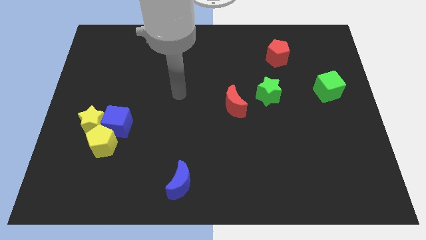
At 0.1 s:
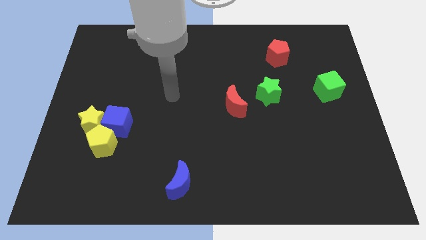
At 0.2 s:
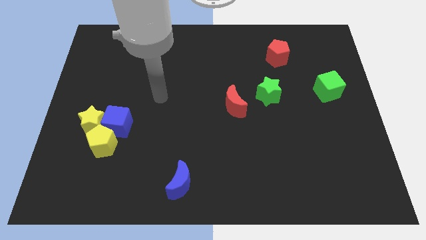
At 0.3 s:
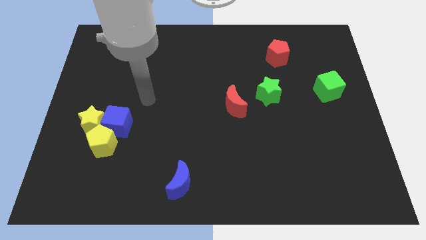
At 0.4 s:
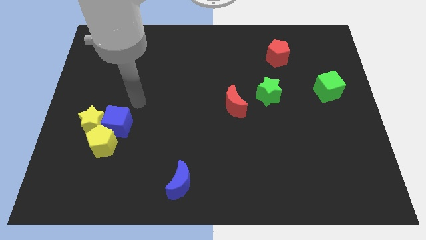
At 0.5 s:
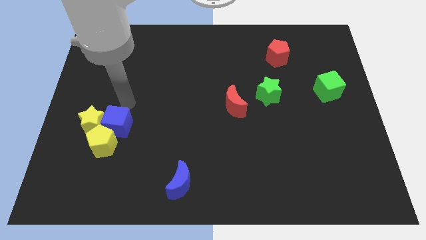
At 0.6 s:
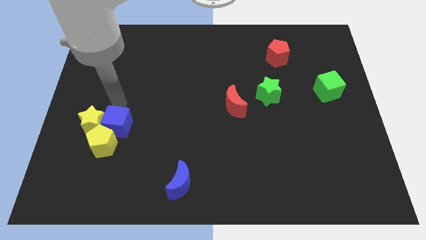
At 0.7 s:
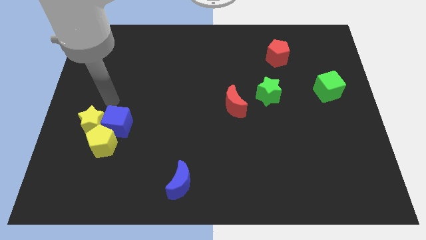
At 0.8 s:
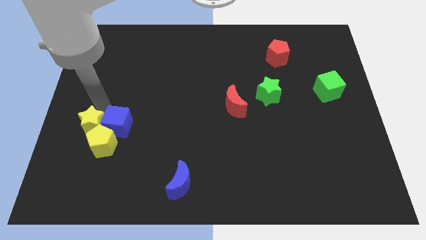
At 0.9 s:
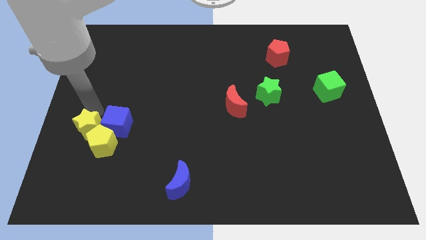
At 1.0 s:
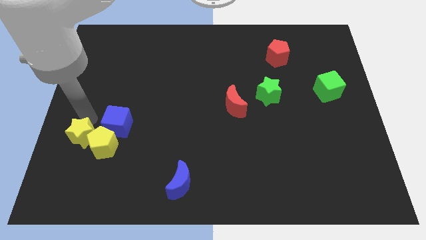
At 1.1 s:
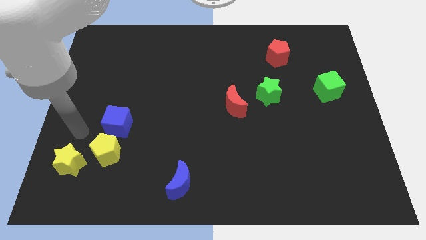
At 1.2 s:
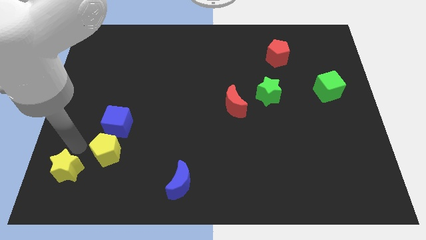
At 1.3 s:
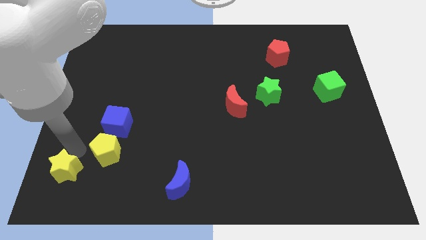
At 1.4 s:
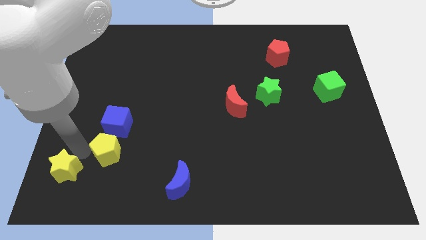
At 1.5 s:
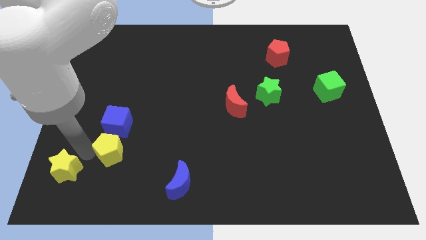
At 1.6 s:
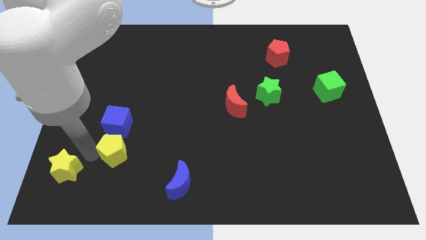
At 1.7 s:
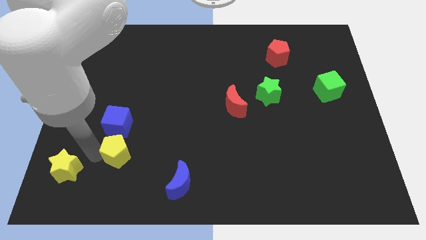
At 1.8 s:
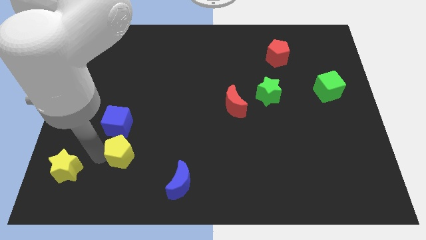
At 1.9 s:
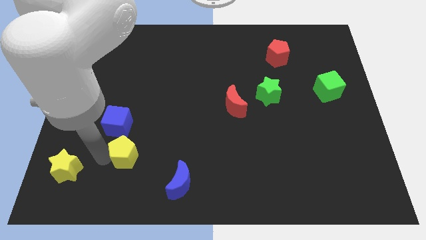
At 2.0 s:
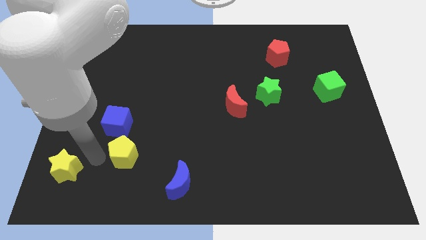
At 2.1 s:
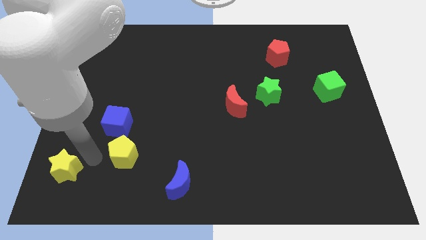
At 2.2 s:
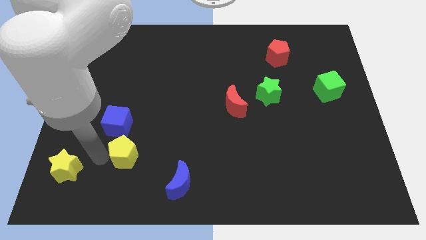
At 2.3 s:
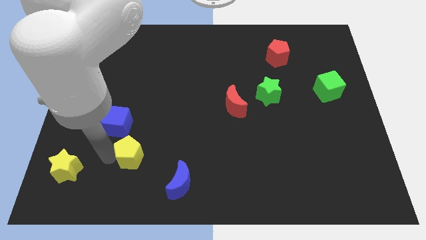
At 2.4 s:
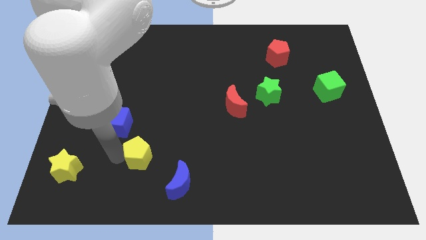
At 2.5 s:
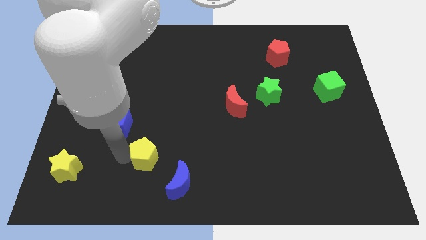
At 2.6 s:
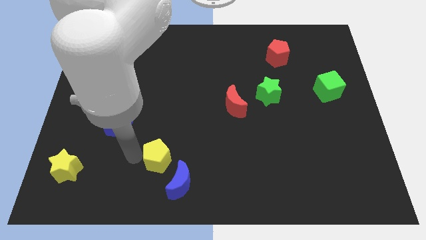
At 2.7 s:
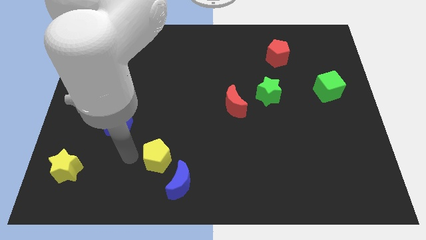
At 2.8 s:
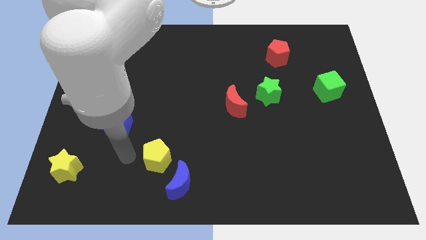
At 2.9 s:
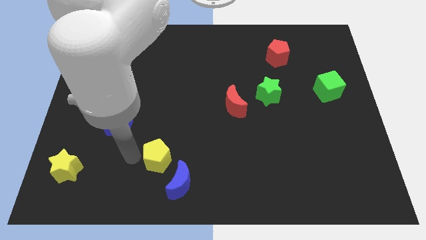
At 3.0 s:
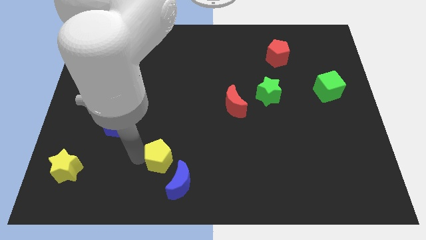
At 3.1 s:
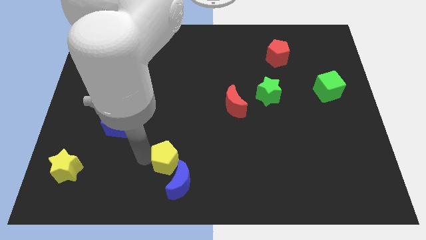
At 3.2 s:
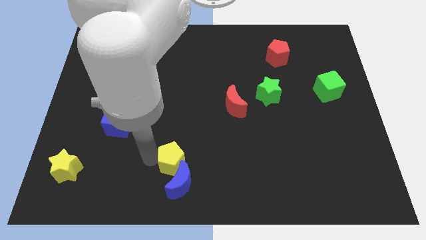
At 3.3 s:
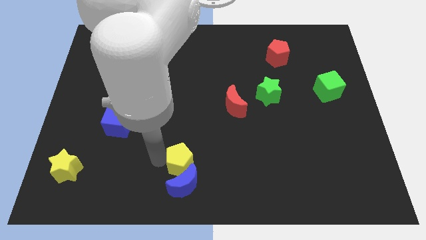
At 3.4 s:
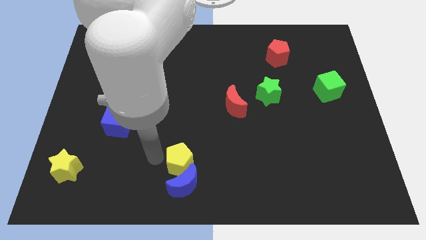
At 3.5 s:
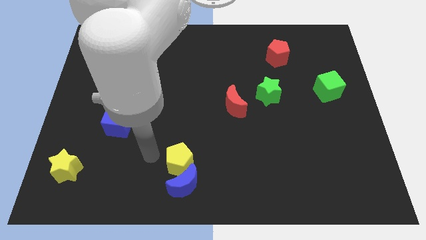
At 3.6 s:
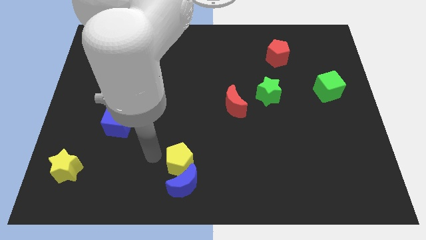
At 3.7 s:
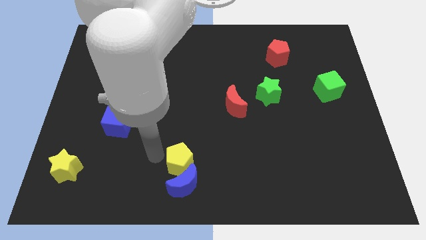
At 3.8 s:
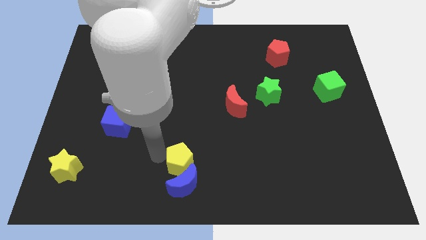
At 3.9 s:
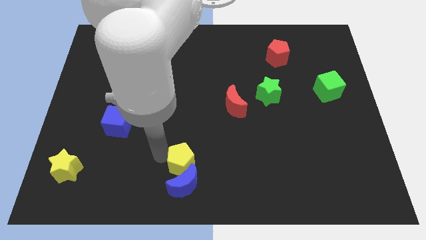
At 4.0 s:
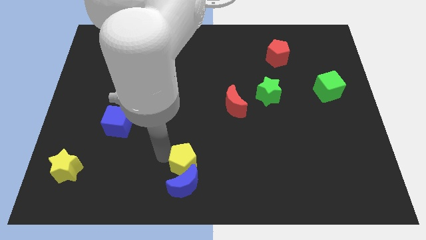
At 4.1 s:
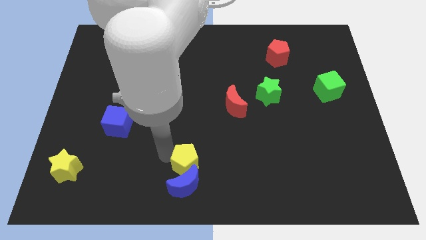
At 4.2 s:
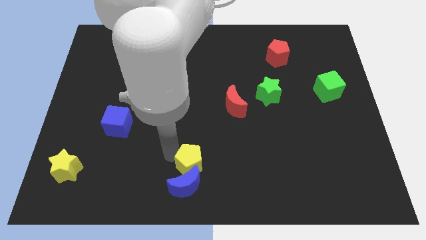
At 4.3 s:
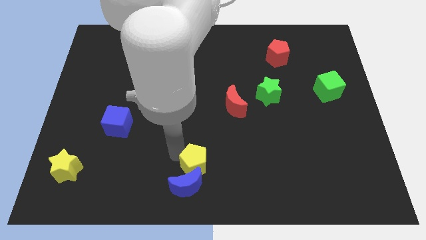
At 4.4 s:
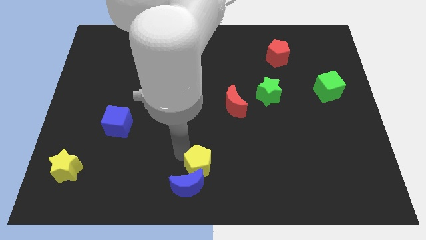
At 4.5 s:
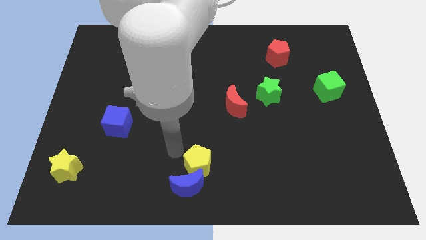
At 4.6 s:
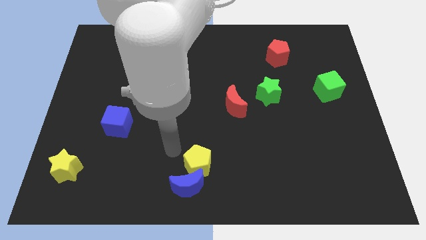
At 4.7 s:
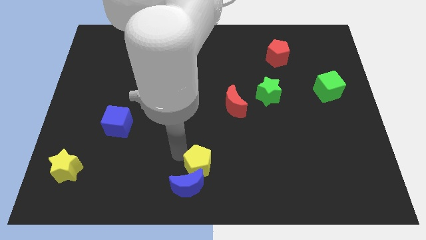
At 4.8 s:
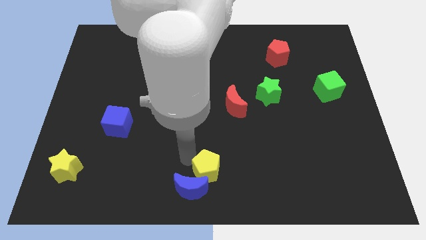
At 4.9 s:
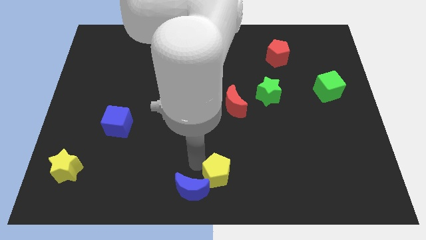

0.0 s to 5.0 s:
slide the yellow pentagon right of the blue moon

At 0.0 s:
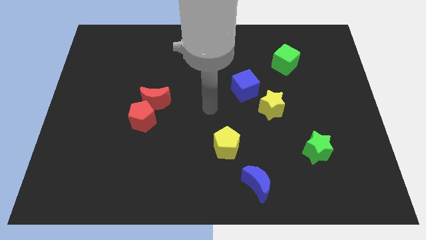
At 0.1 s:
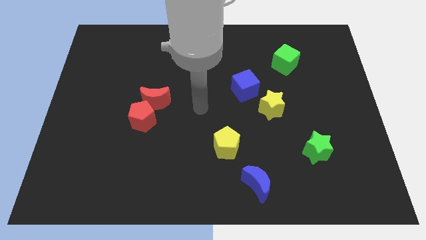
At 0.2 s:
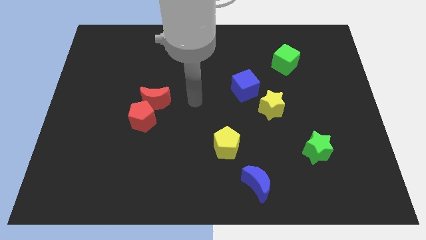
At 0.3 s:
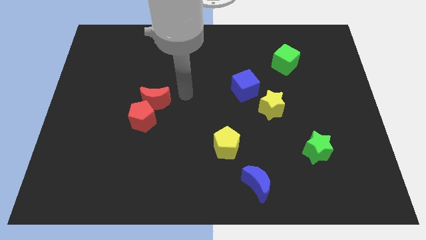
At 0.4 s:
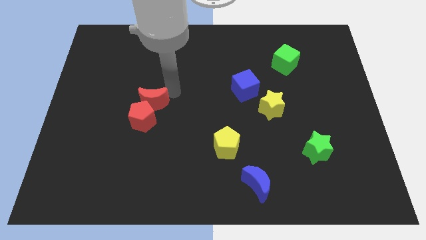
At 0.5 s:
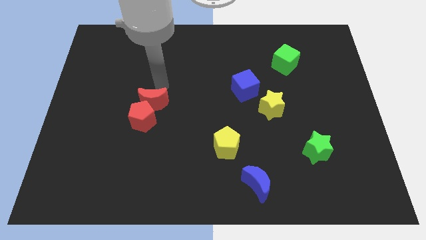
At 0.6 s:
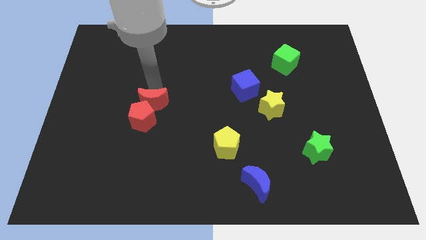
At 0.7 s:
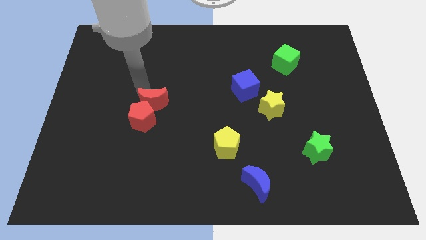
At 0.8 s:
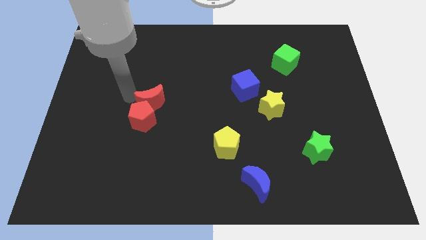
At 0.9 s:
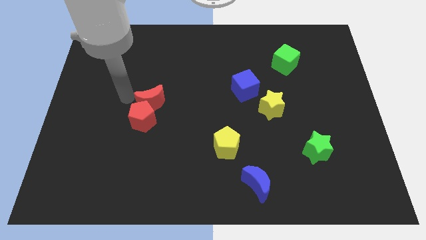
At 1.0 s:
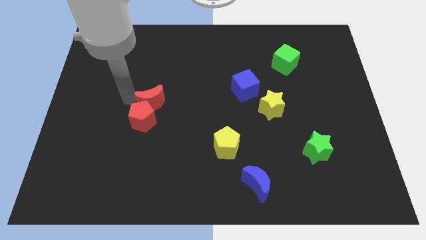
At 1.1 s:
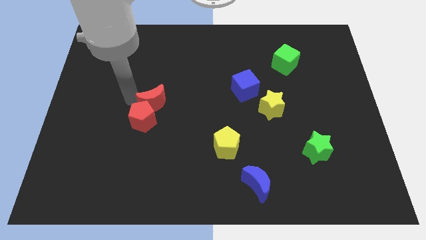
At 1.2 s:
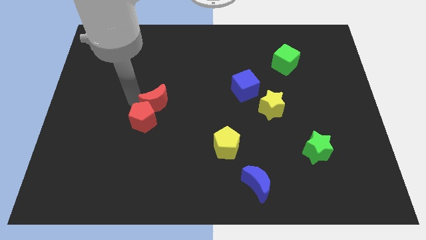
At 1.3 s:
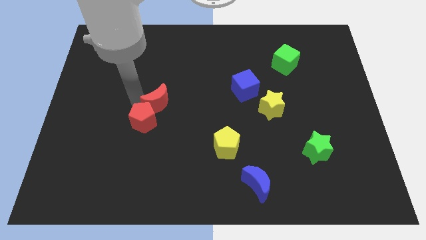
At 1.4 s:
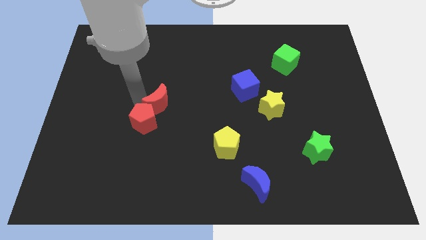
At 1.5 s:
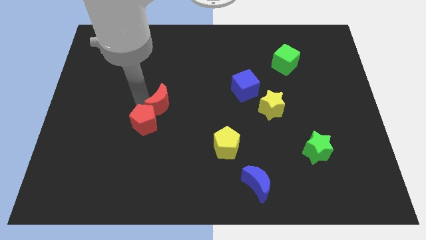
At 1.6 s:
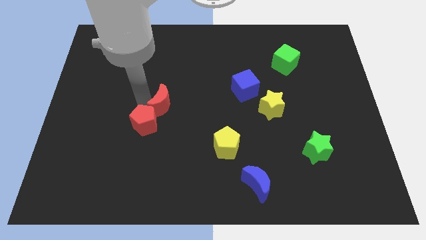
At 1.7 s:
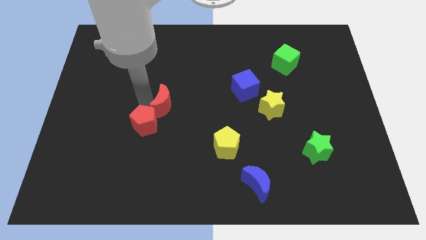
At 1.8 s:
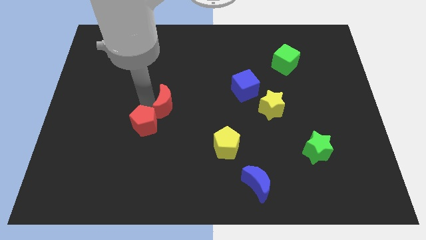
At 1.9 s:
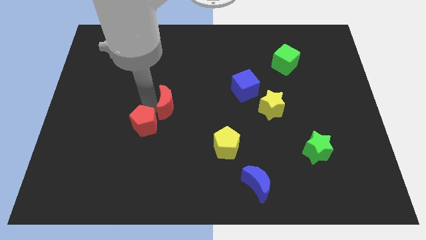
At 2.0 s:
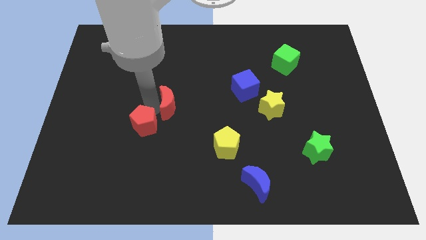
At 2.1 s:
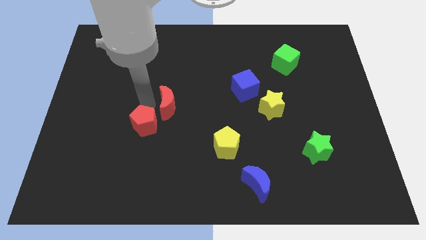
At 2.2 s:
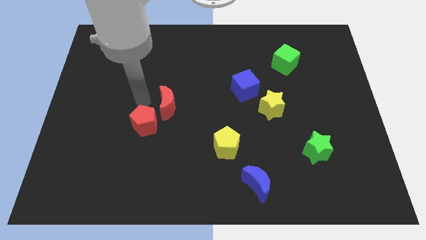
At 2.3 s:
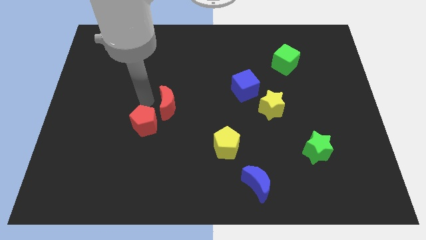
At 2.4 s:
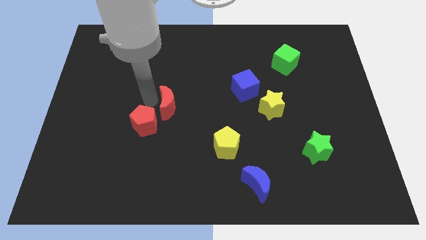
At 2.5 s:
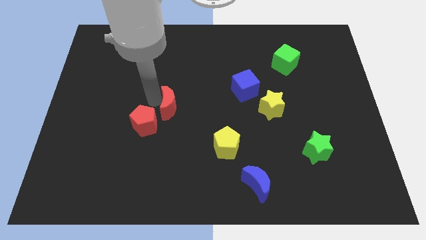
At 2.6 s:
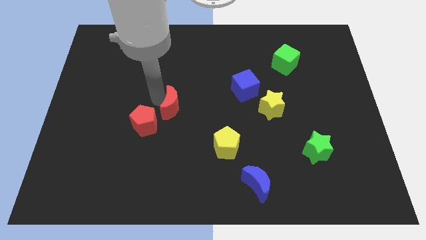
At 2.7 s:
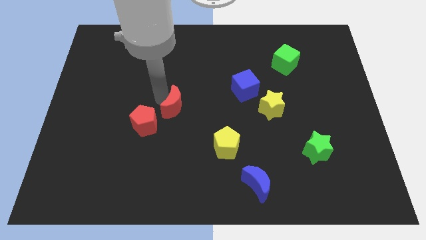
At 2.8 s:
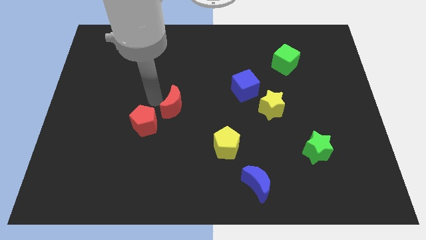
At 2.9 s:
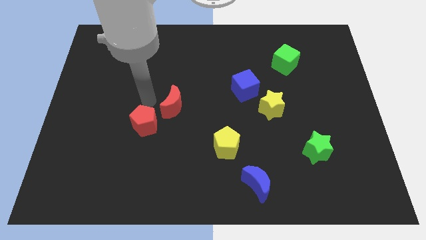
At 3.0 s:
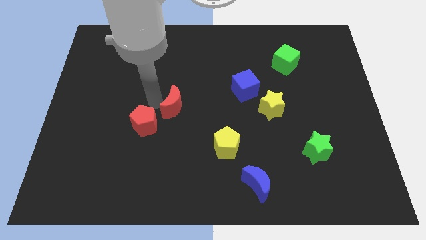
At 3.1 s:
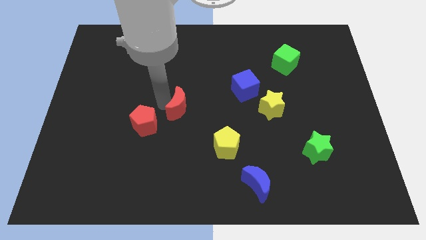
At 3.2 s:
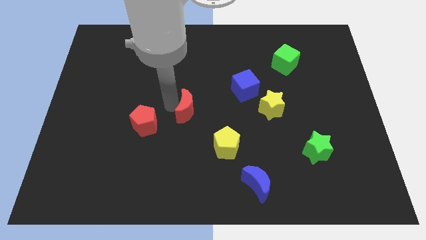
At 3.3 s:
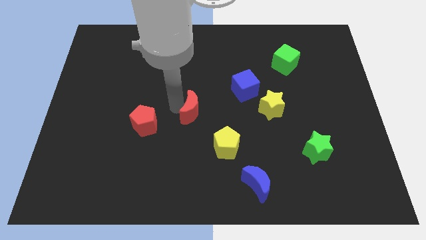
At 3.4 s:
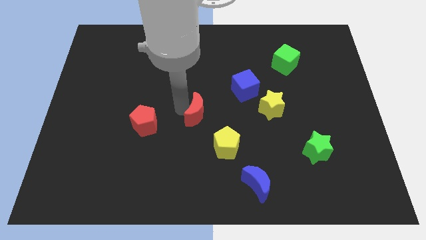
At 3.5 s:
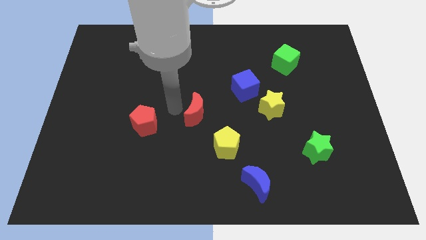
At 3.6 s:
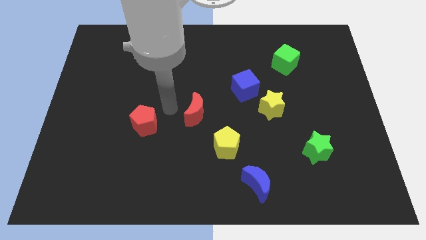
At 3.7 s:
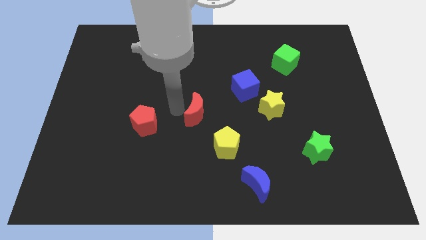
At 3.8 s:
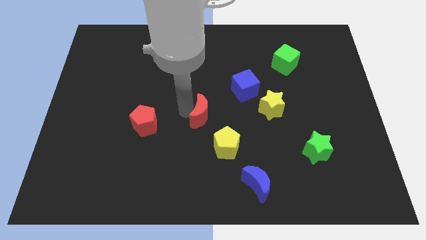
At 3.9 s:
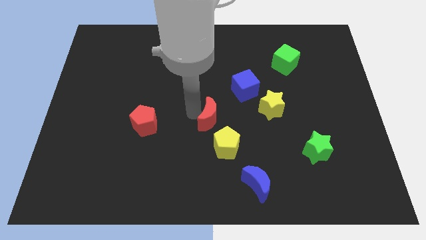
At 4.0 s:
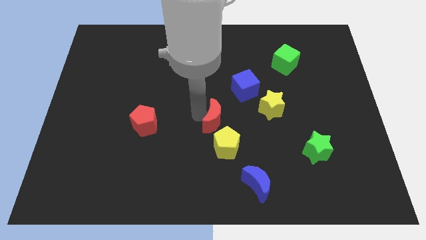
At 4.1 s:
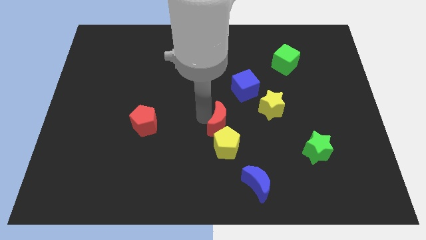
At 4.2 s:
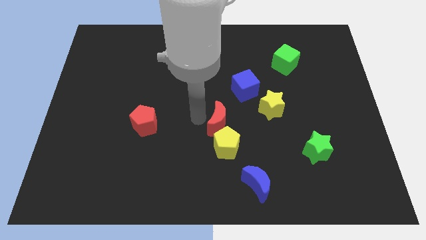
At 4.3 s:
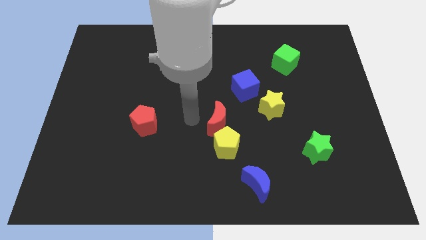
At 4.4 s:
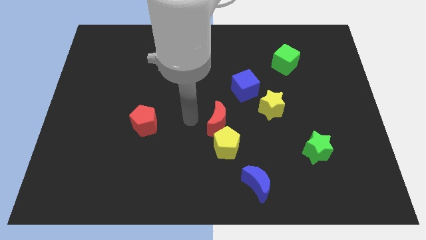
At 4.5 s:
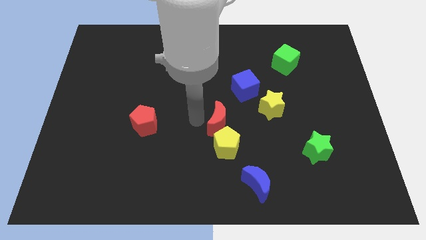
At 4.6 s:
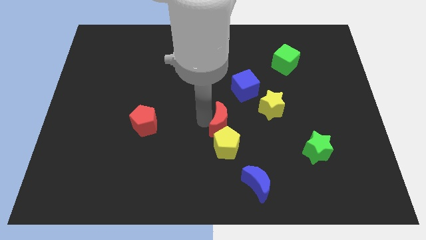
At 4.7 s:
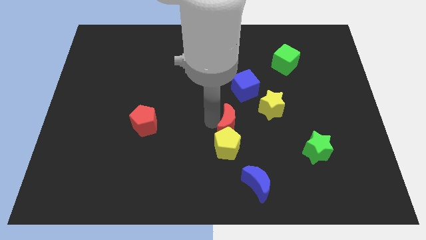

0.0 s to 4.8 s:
push the red moon to the bottom left of the yellow star
